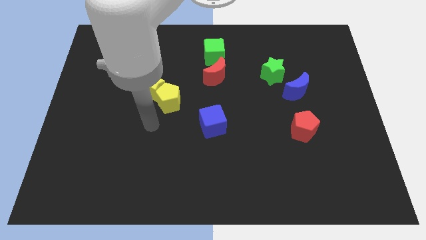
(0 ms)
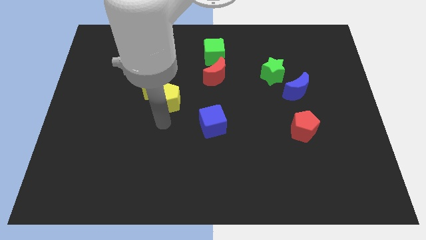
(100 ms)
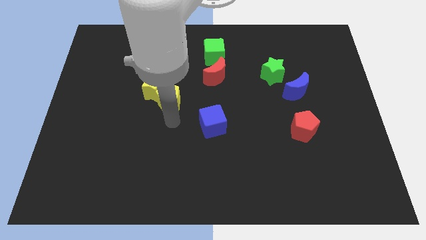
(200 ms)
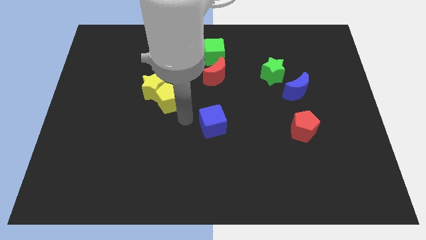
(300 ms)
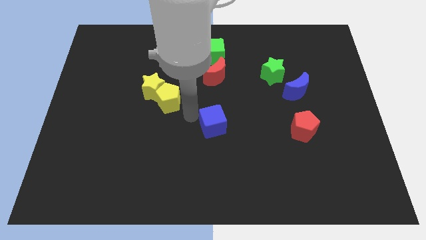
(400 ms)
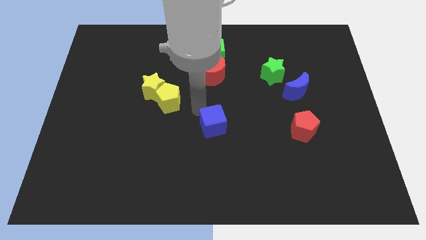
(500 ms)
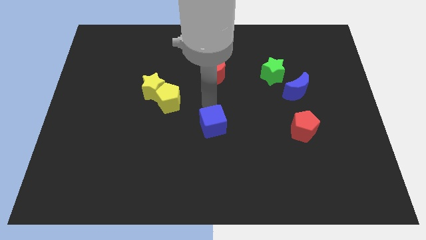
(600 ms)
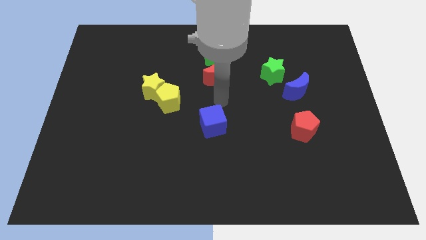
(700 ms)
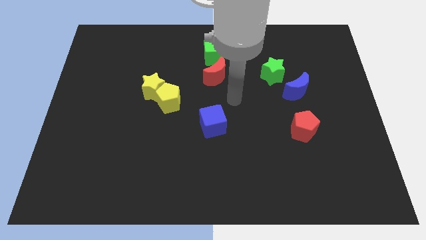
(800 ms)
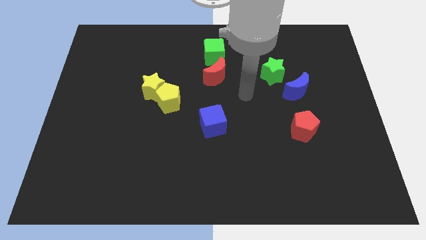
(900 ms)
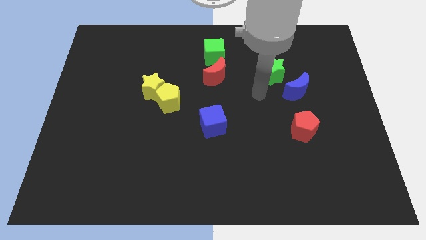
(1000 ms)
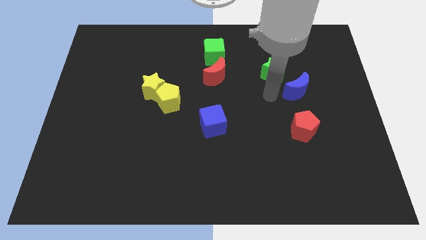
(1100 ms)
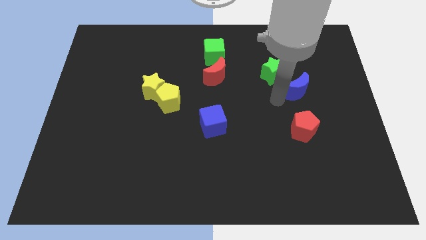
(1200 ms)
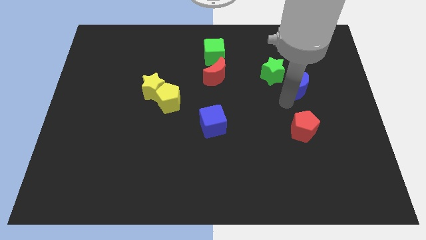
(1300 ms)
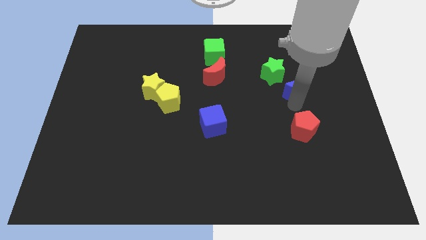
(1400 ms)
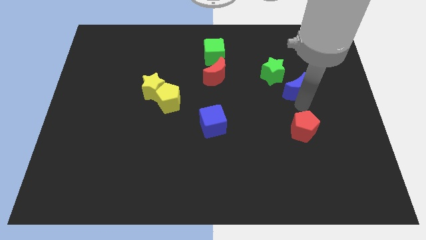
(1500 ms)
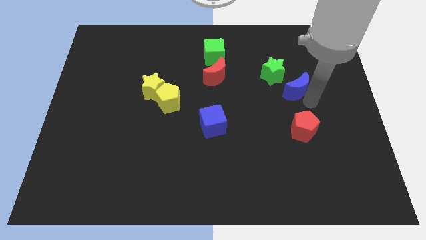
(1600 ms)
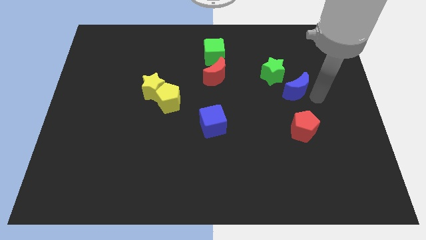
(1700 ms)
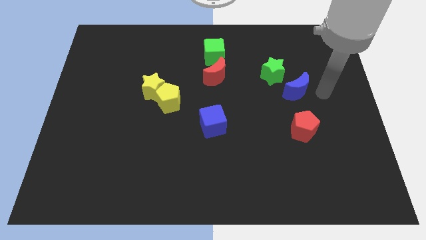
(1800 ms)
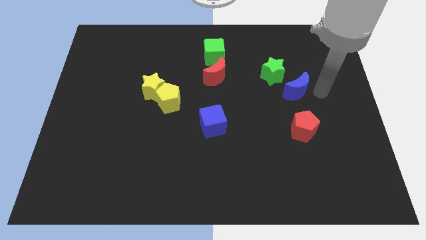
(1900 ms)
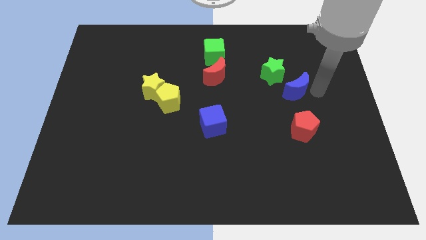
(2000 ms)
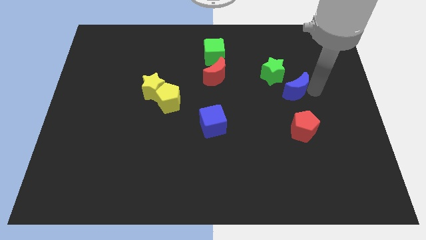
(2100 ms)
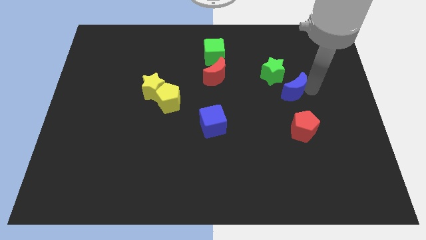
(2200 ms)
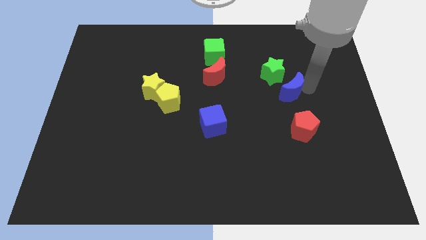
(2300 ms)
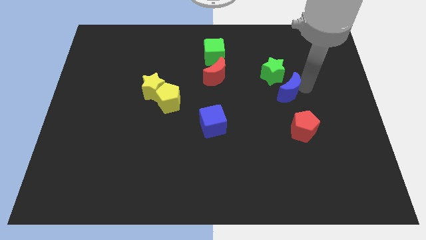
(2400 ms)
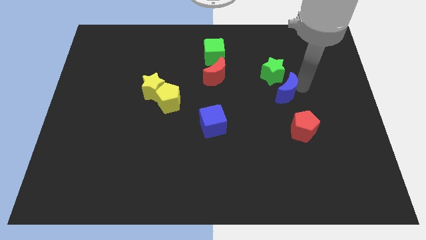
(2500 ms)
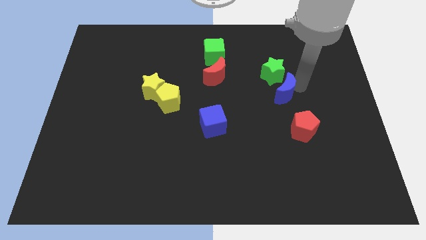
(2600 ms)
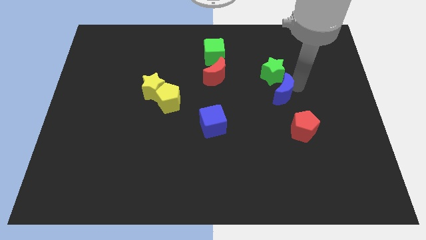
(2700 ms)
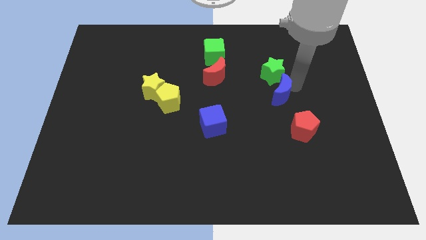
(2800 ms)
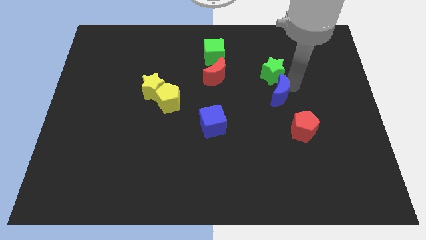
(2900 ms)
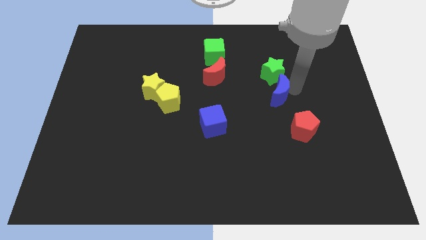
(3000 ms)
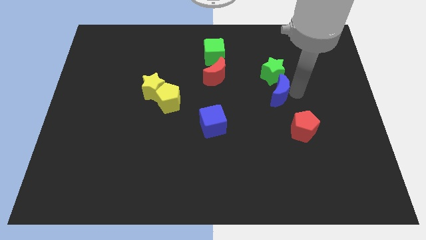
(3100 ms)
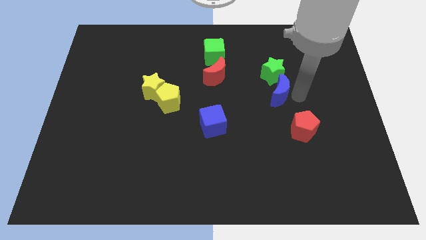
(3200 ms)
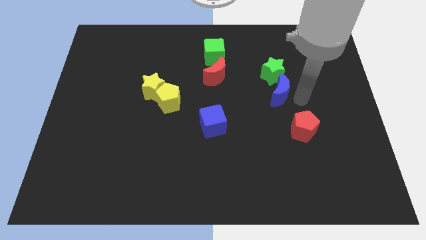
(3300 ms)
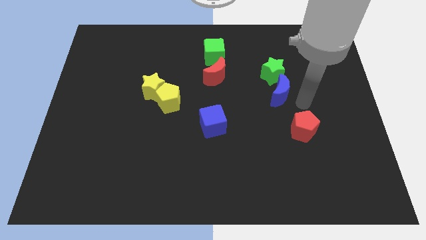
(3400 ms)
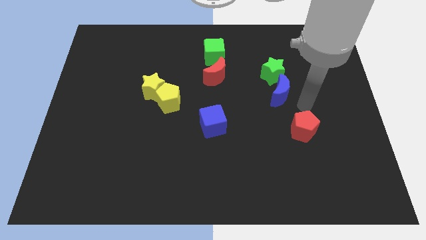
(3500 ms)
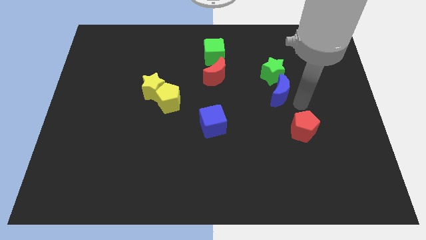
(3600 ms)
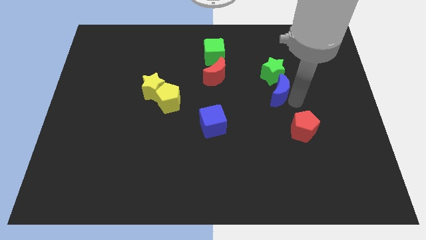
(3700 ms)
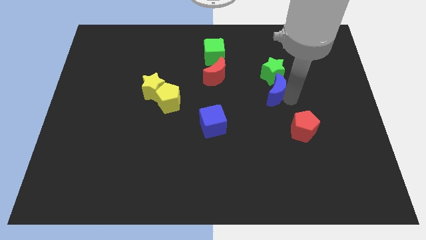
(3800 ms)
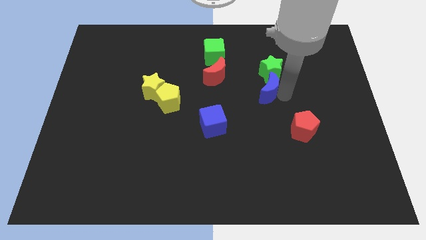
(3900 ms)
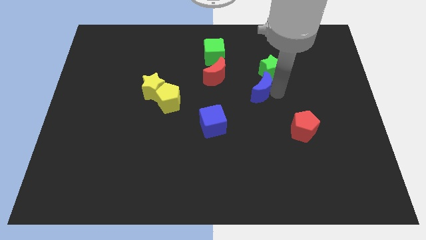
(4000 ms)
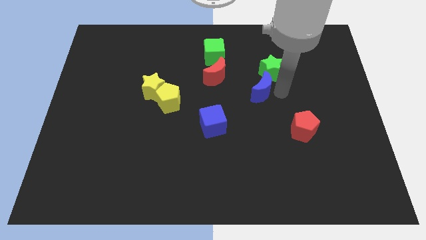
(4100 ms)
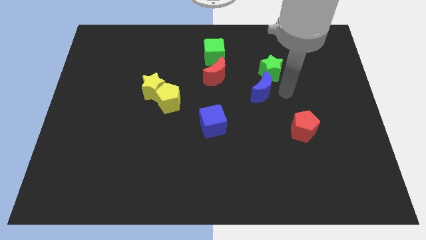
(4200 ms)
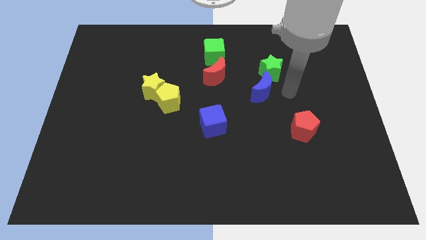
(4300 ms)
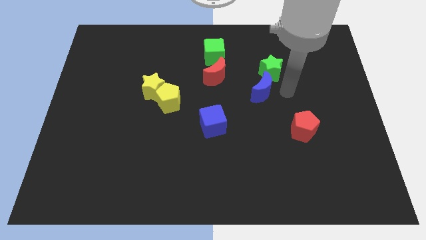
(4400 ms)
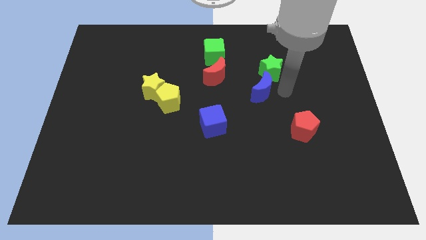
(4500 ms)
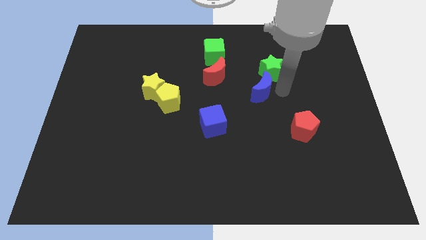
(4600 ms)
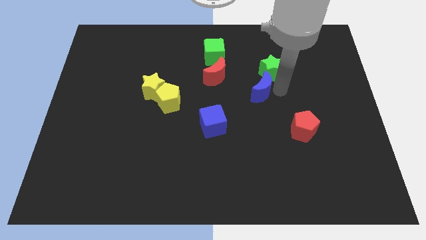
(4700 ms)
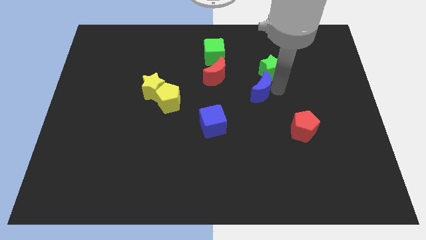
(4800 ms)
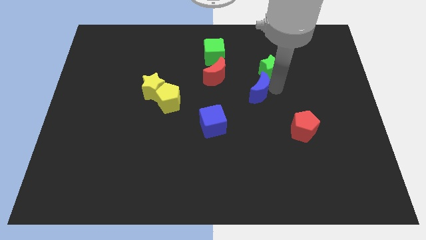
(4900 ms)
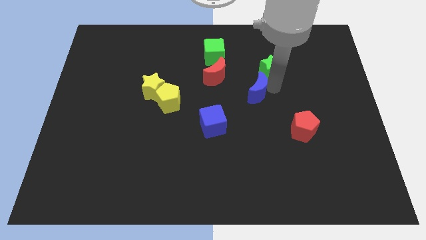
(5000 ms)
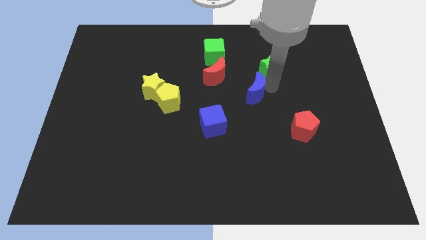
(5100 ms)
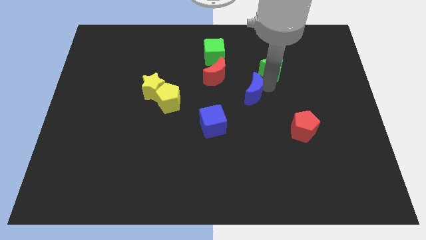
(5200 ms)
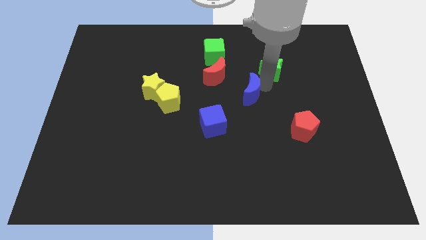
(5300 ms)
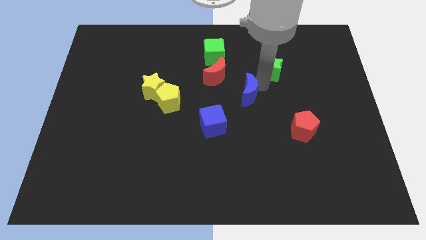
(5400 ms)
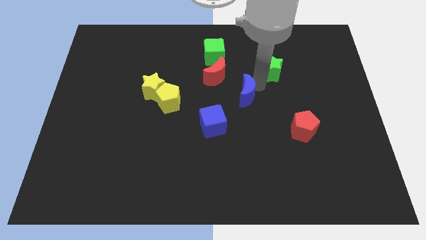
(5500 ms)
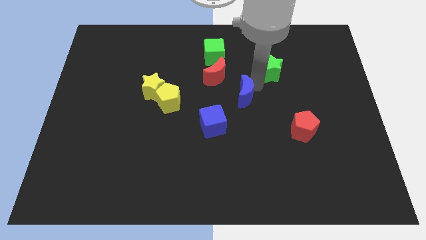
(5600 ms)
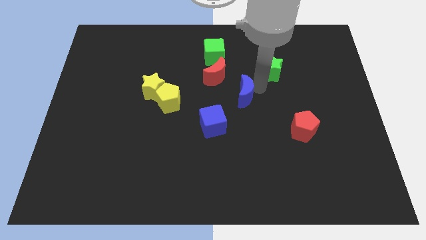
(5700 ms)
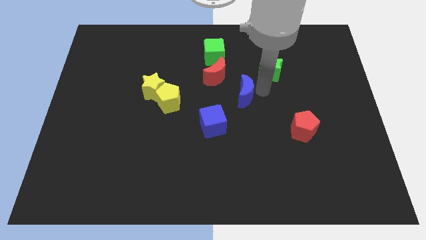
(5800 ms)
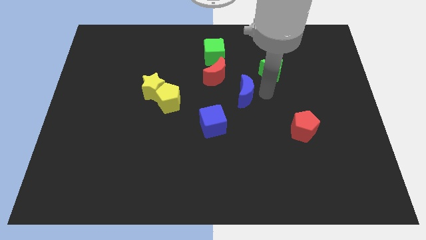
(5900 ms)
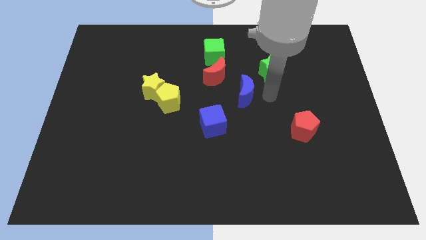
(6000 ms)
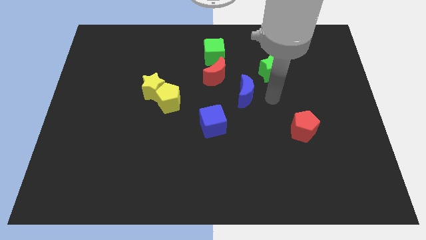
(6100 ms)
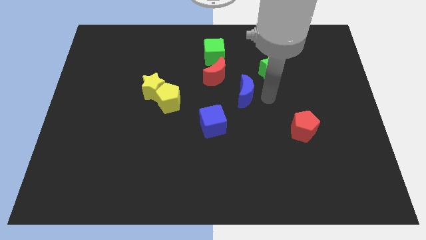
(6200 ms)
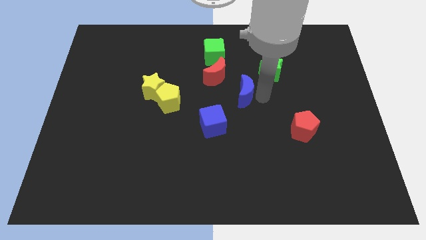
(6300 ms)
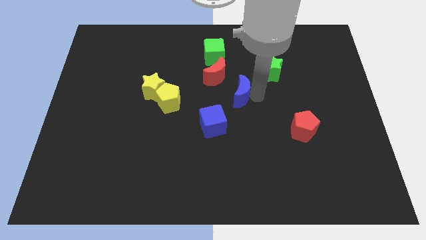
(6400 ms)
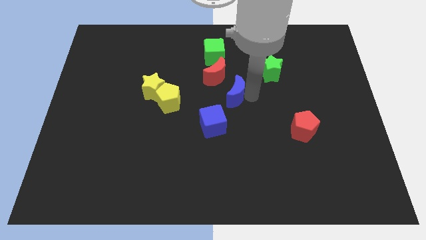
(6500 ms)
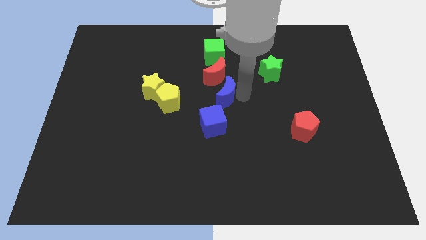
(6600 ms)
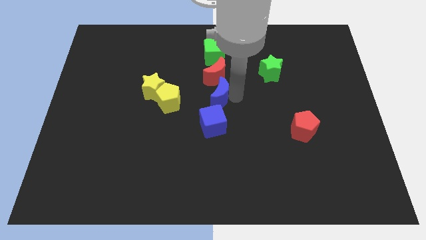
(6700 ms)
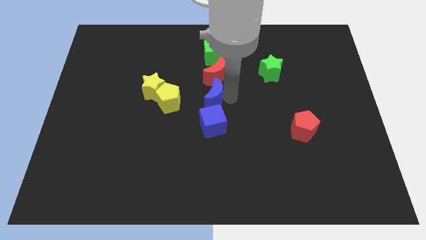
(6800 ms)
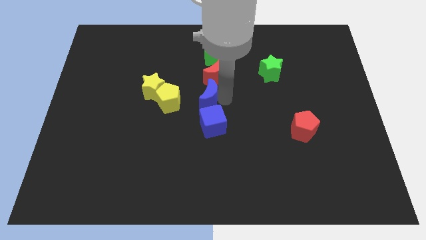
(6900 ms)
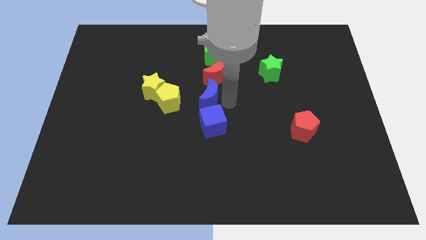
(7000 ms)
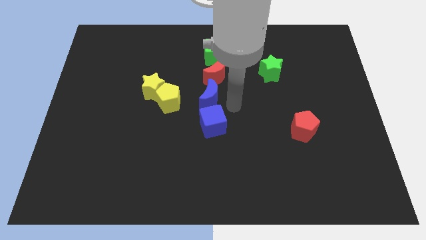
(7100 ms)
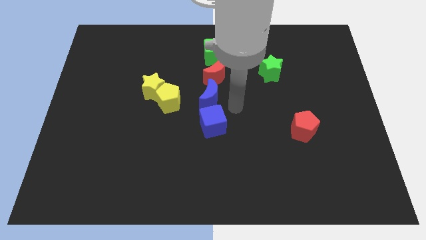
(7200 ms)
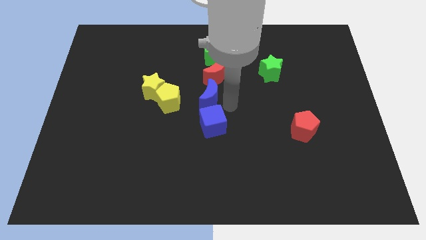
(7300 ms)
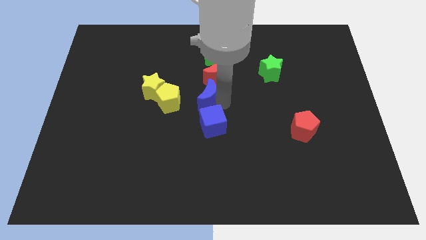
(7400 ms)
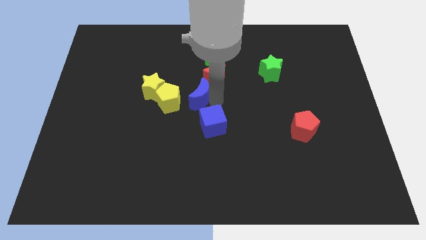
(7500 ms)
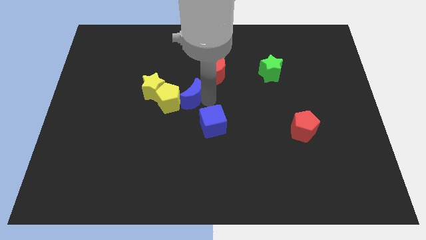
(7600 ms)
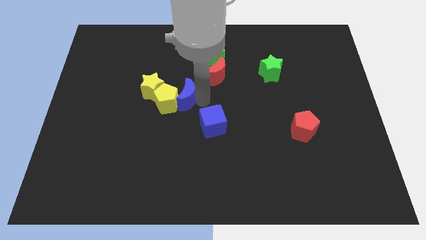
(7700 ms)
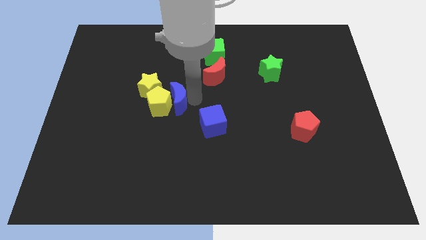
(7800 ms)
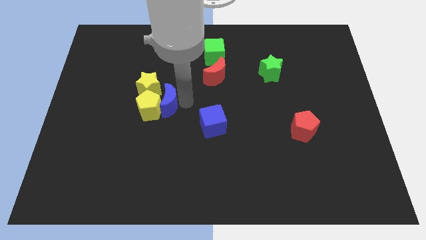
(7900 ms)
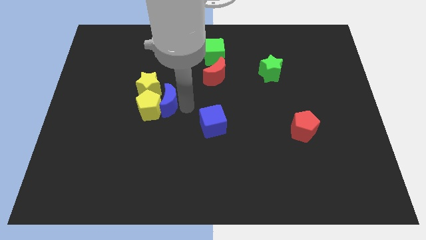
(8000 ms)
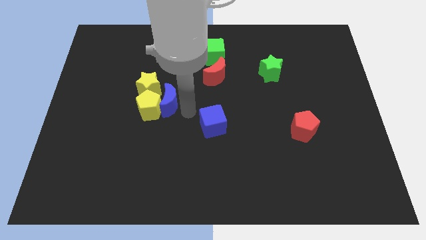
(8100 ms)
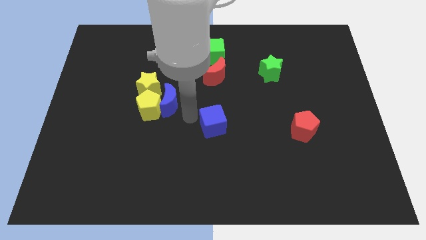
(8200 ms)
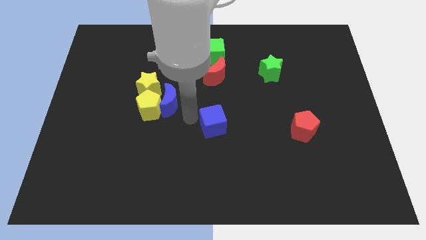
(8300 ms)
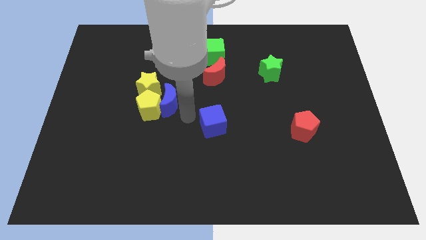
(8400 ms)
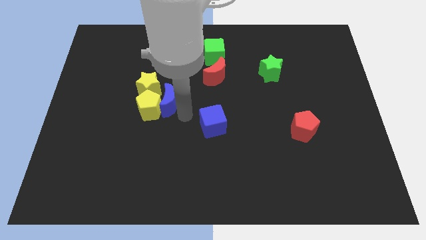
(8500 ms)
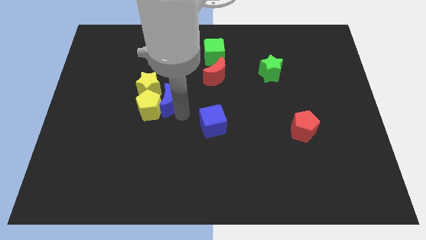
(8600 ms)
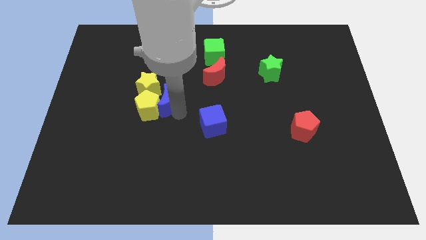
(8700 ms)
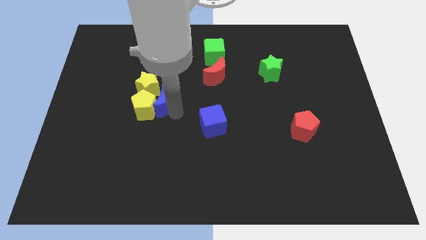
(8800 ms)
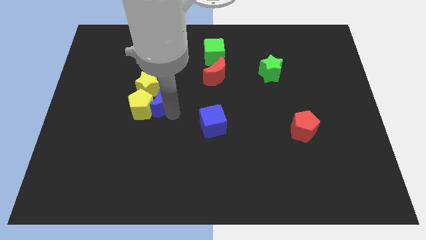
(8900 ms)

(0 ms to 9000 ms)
push the blue moon towards the yellow star
